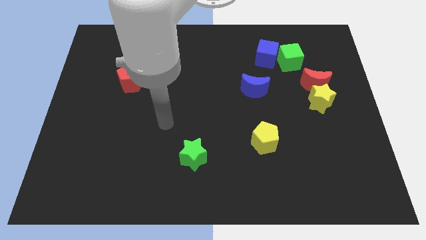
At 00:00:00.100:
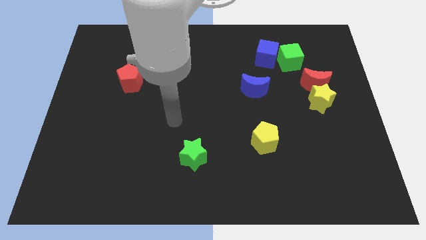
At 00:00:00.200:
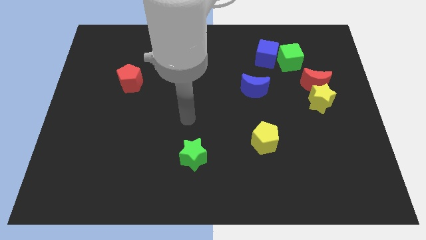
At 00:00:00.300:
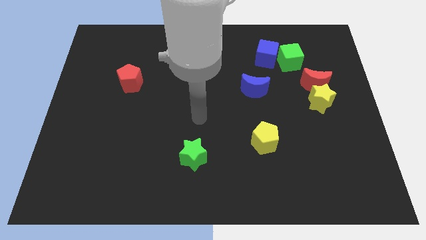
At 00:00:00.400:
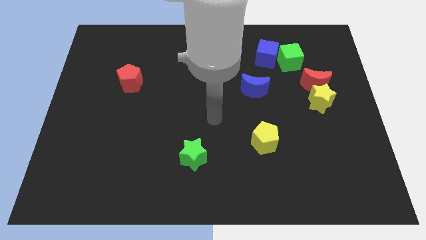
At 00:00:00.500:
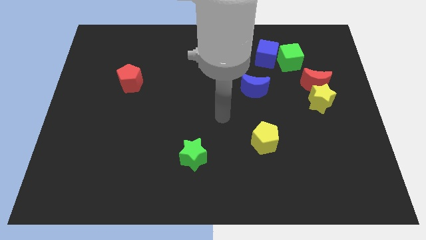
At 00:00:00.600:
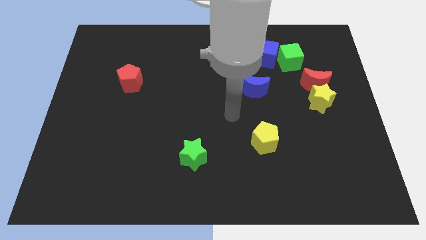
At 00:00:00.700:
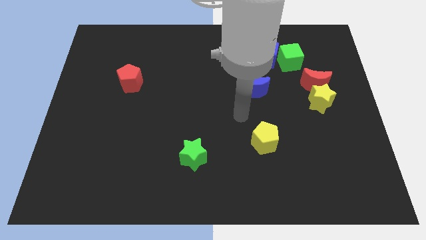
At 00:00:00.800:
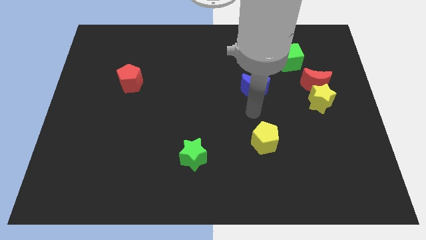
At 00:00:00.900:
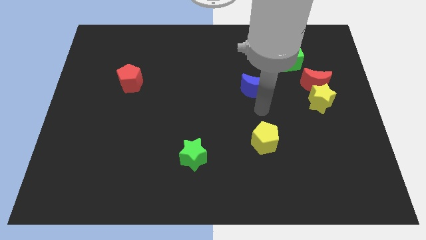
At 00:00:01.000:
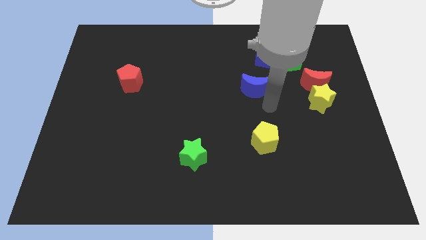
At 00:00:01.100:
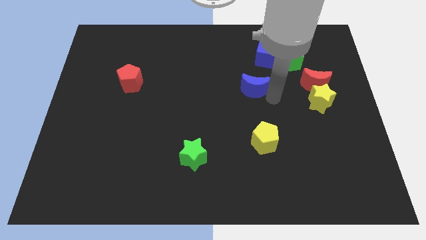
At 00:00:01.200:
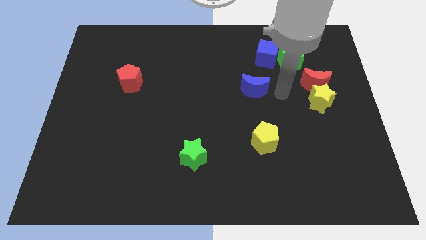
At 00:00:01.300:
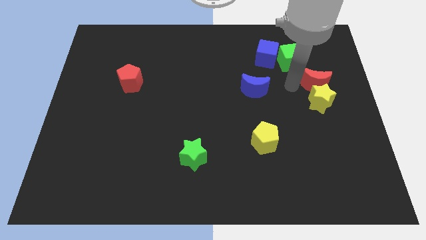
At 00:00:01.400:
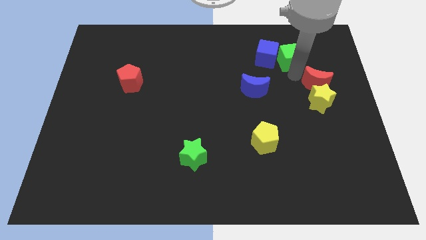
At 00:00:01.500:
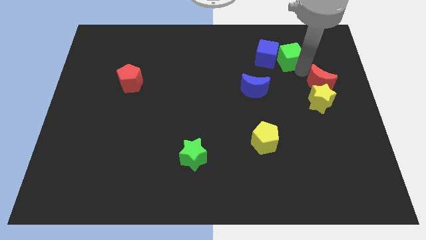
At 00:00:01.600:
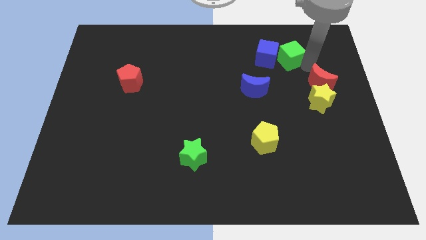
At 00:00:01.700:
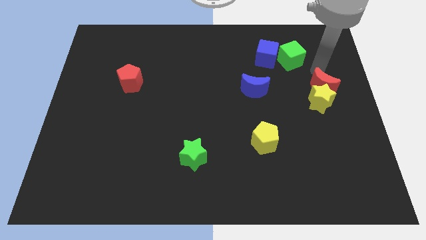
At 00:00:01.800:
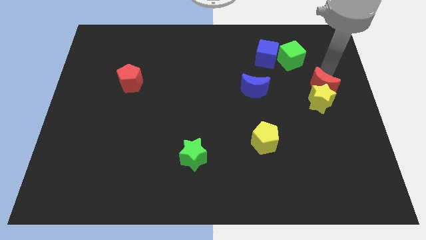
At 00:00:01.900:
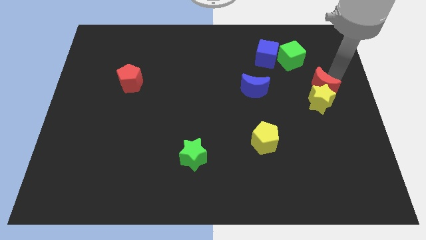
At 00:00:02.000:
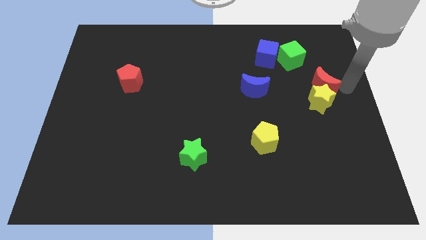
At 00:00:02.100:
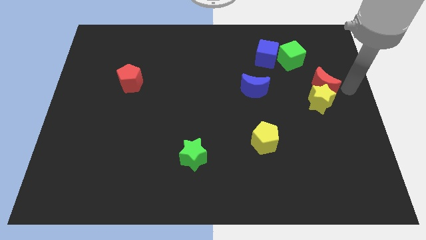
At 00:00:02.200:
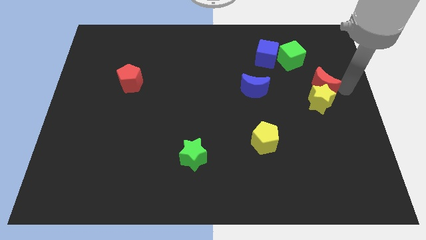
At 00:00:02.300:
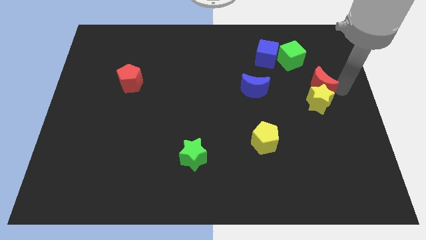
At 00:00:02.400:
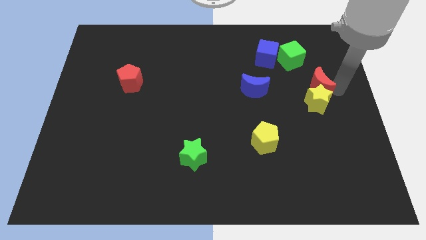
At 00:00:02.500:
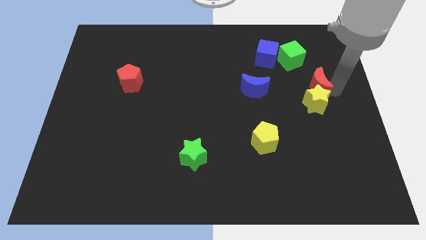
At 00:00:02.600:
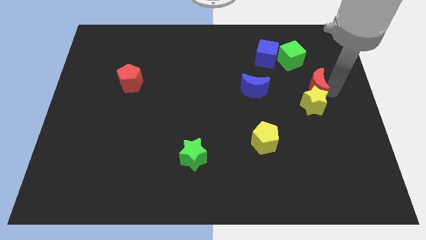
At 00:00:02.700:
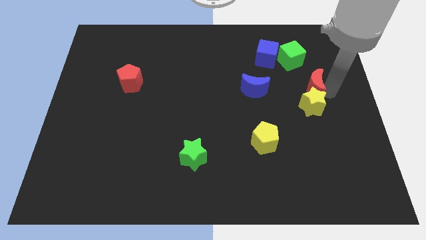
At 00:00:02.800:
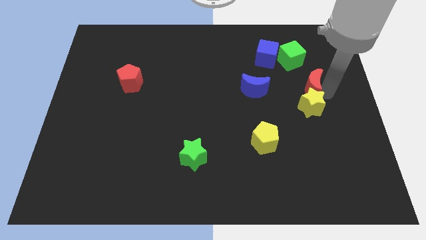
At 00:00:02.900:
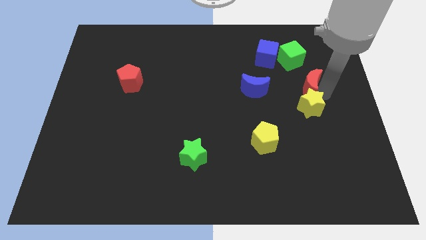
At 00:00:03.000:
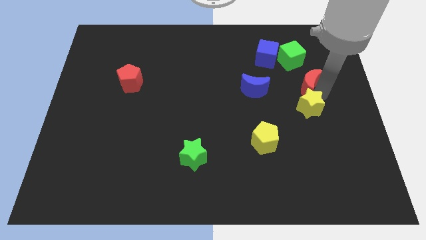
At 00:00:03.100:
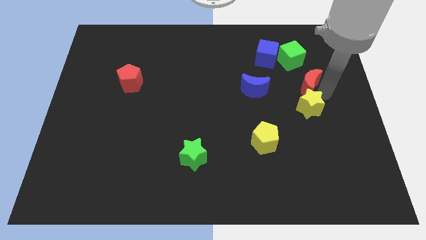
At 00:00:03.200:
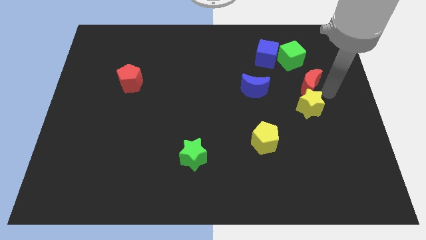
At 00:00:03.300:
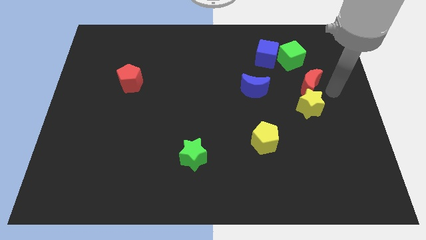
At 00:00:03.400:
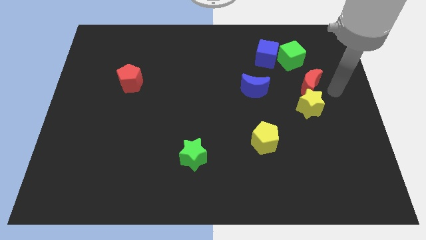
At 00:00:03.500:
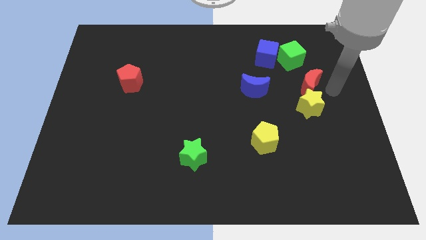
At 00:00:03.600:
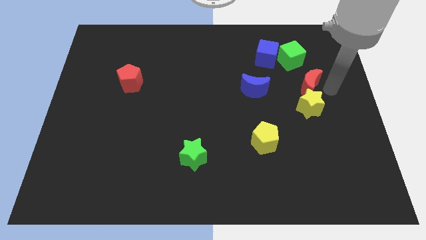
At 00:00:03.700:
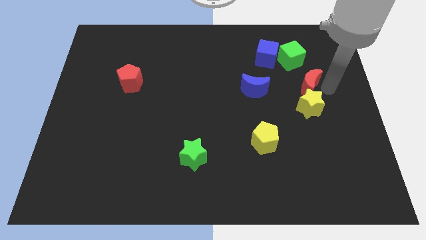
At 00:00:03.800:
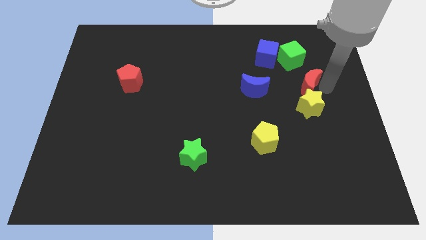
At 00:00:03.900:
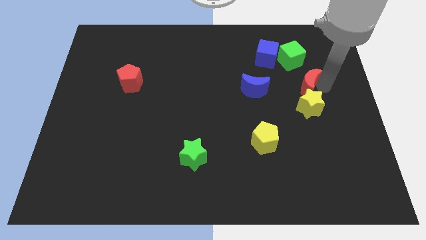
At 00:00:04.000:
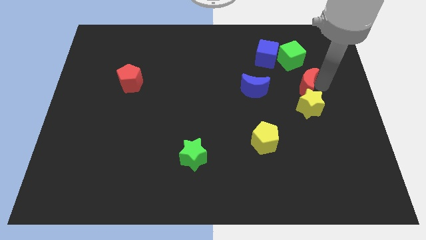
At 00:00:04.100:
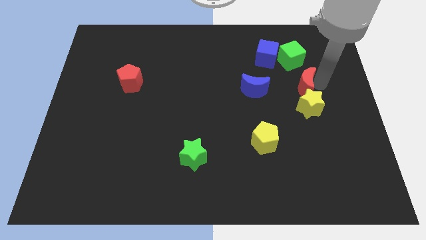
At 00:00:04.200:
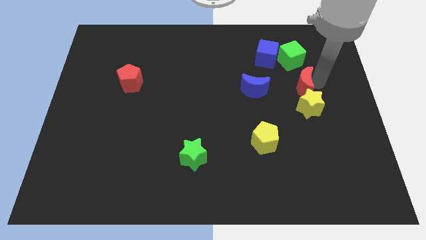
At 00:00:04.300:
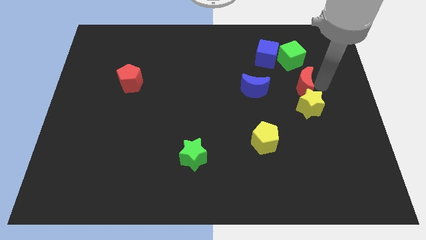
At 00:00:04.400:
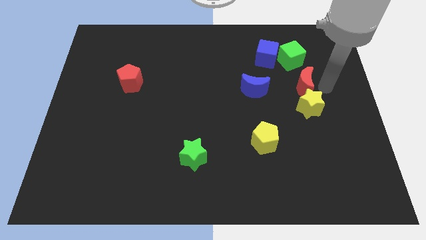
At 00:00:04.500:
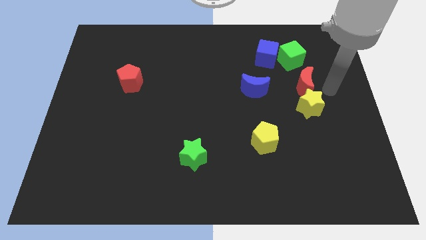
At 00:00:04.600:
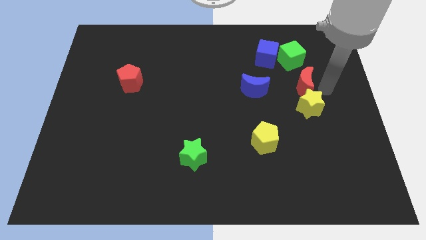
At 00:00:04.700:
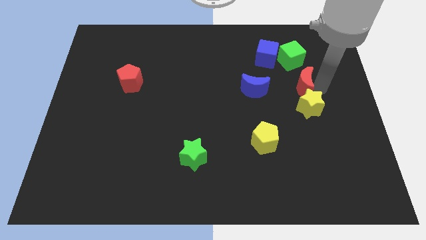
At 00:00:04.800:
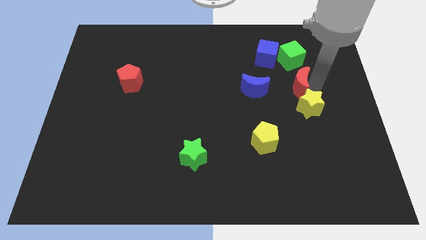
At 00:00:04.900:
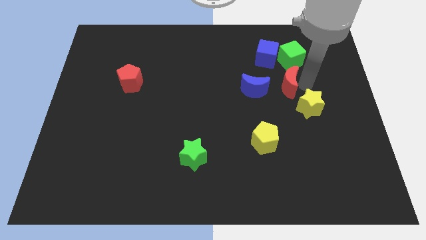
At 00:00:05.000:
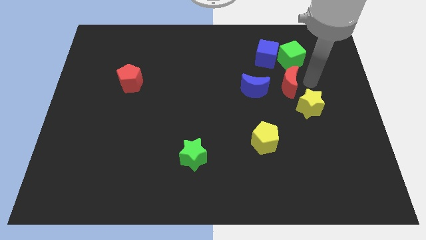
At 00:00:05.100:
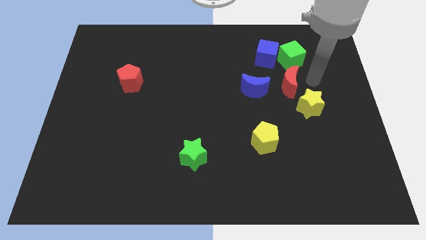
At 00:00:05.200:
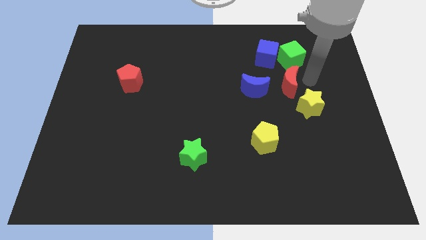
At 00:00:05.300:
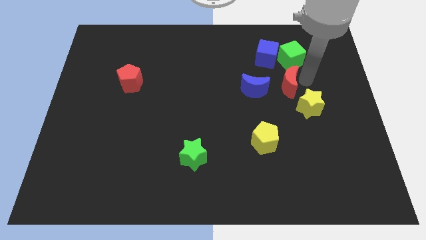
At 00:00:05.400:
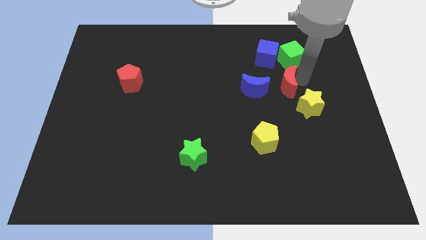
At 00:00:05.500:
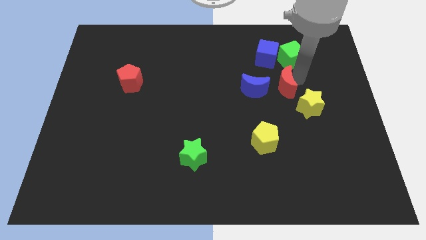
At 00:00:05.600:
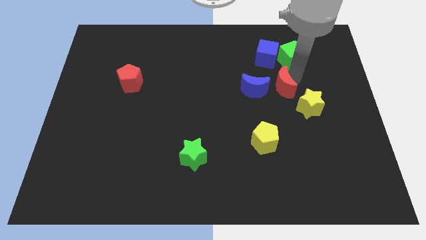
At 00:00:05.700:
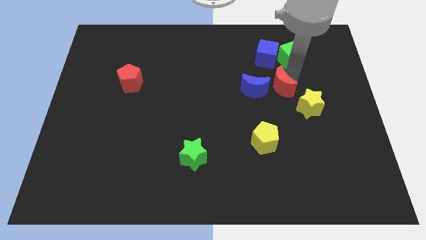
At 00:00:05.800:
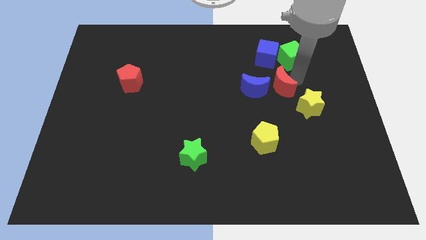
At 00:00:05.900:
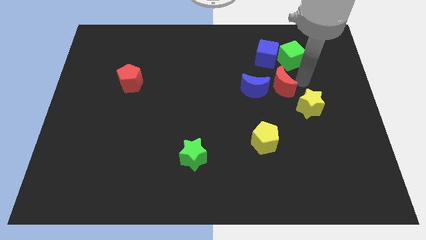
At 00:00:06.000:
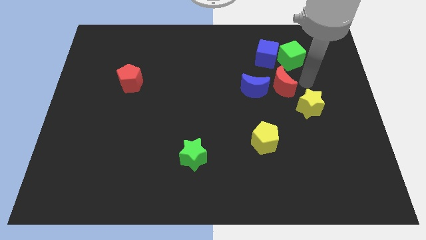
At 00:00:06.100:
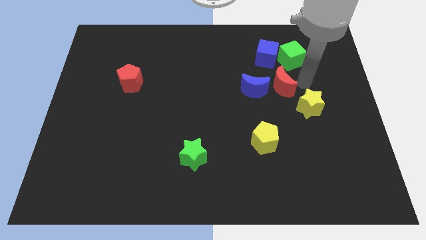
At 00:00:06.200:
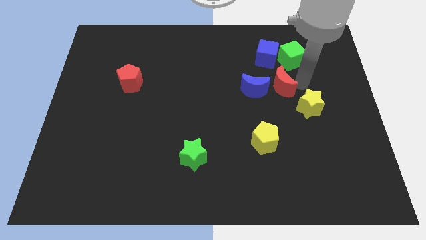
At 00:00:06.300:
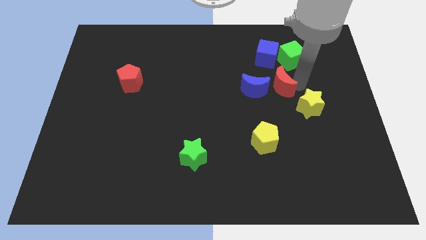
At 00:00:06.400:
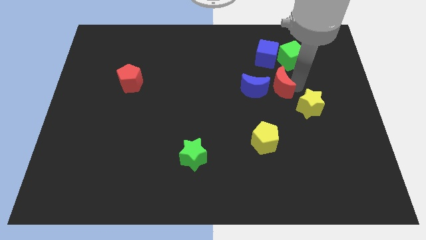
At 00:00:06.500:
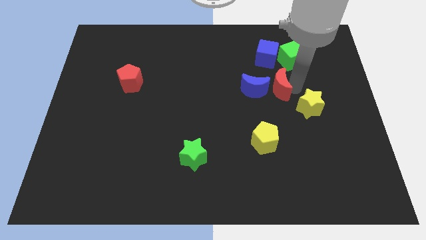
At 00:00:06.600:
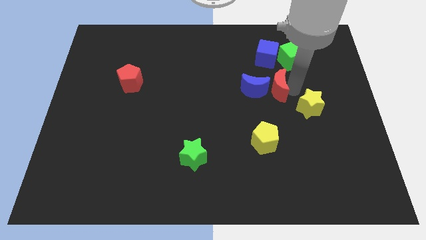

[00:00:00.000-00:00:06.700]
slide the red moon next to the blue moon
